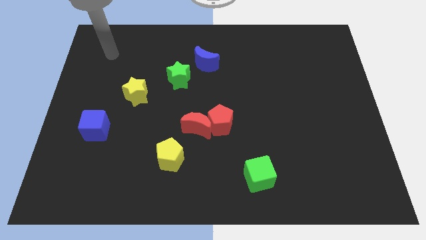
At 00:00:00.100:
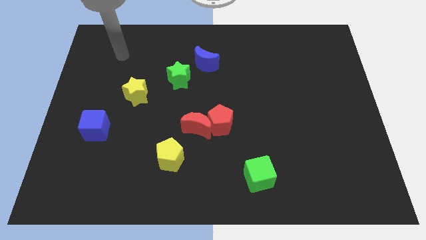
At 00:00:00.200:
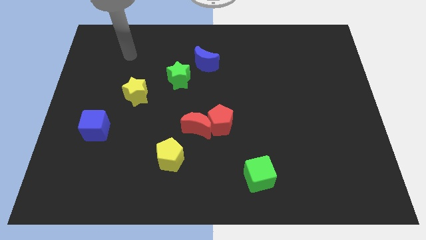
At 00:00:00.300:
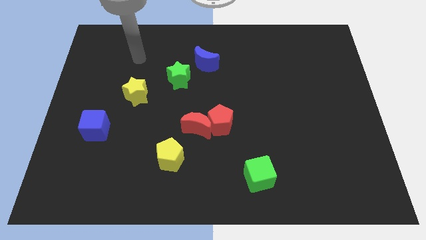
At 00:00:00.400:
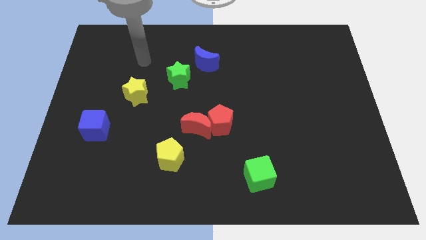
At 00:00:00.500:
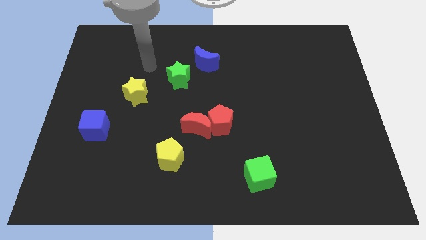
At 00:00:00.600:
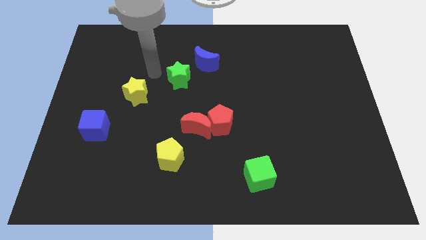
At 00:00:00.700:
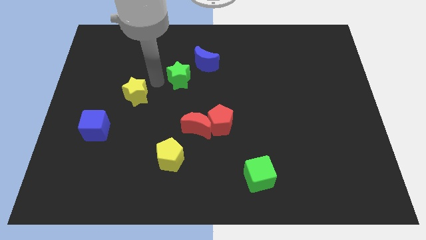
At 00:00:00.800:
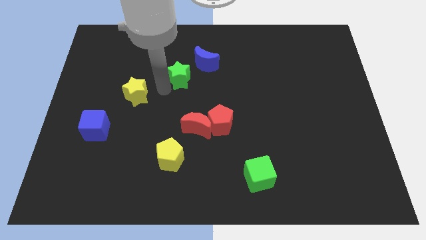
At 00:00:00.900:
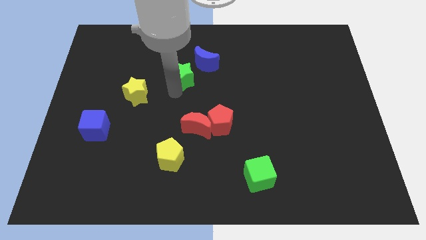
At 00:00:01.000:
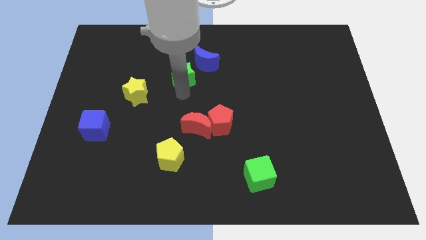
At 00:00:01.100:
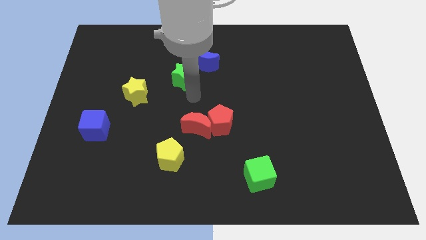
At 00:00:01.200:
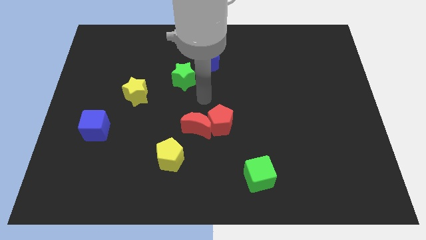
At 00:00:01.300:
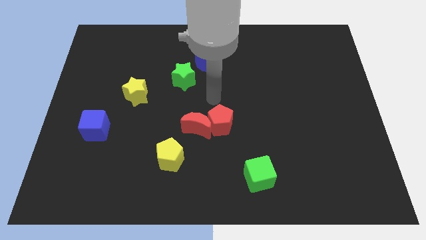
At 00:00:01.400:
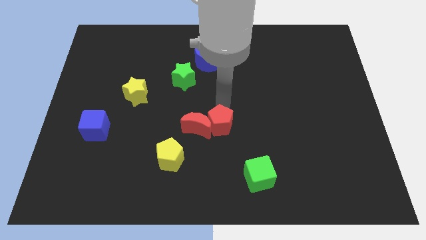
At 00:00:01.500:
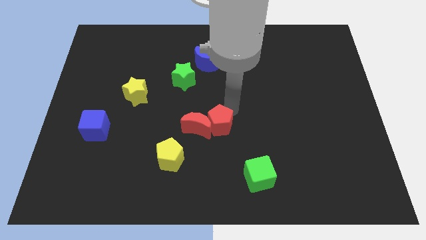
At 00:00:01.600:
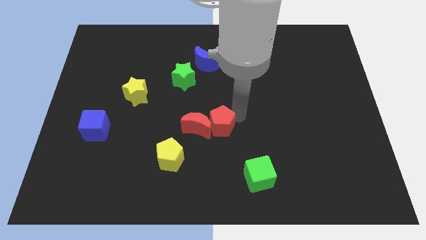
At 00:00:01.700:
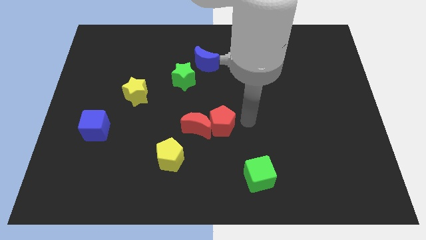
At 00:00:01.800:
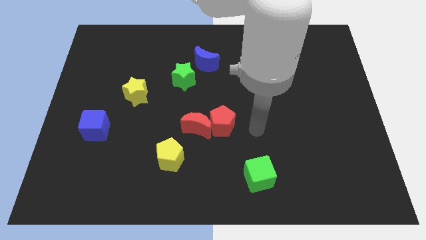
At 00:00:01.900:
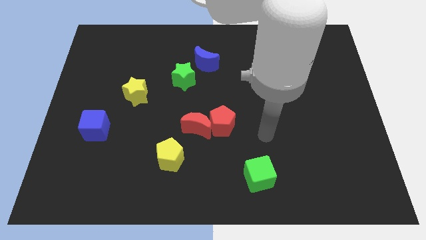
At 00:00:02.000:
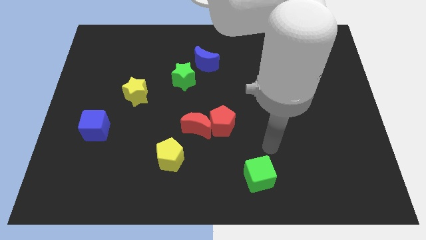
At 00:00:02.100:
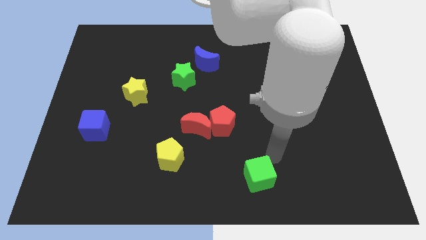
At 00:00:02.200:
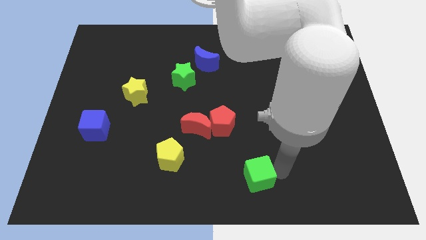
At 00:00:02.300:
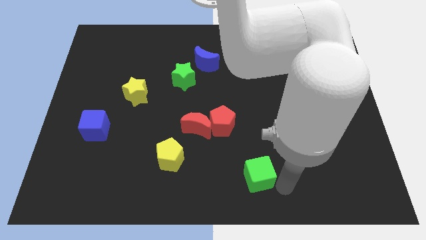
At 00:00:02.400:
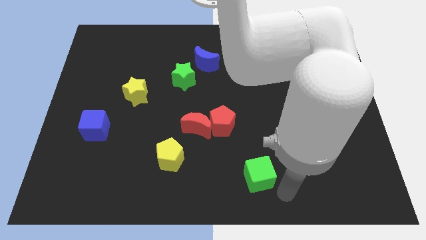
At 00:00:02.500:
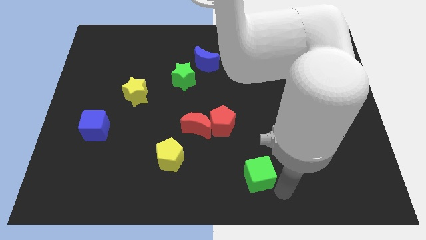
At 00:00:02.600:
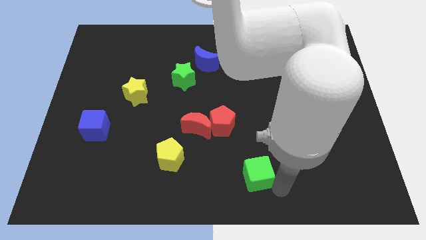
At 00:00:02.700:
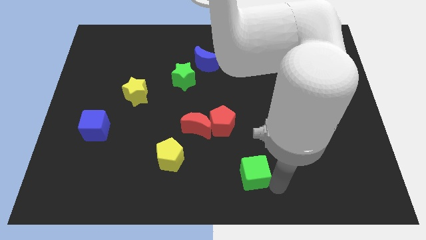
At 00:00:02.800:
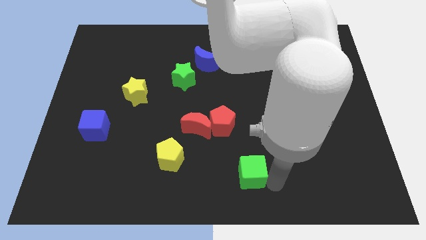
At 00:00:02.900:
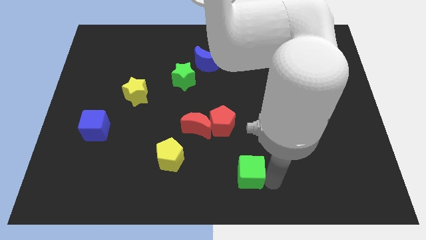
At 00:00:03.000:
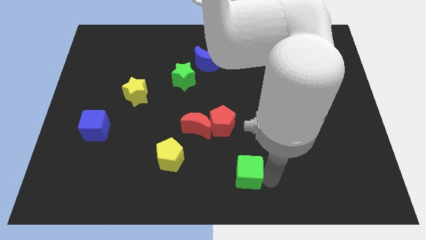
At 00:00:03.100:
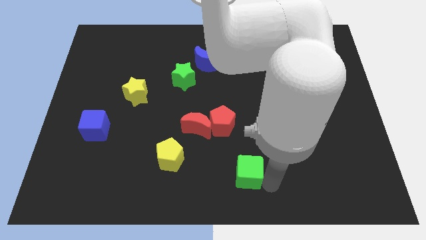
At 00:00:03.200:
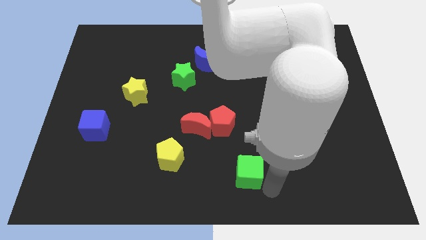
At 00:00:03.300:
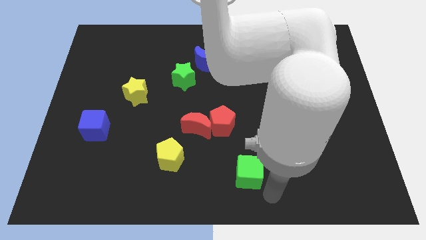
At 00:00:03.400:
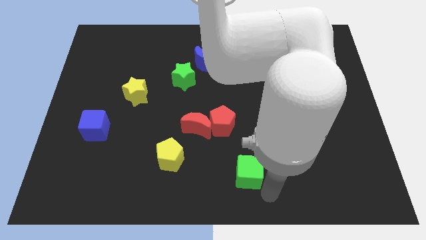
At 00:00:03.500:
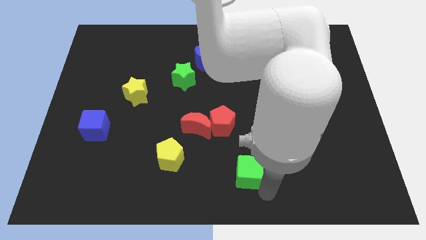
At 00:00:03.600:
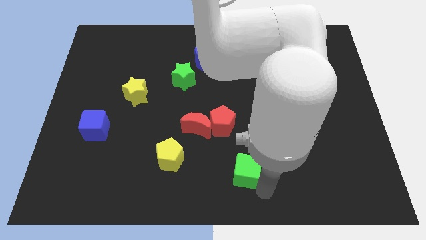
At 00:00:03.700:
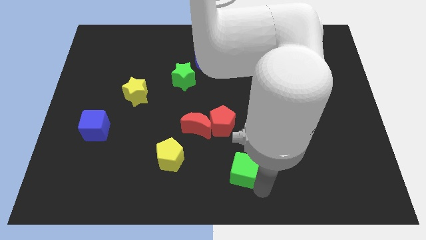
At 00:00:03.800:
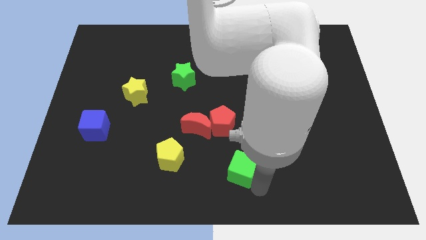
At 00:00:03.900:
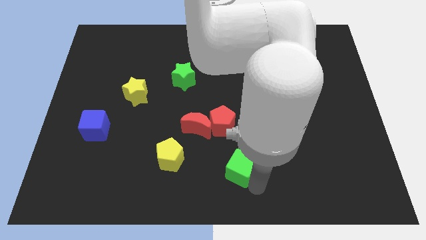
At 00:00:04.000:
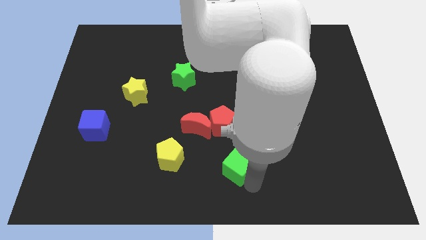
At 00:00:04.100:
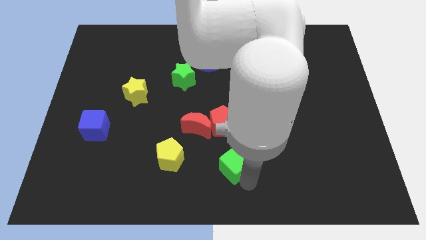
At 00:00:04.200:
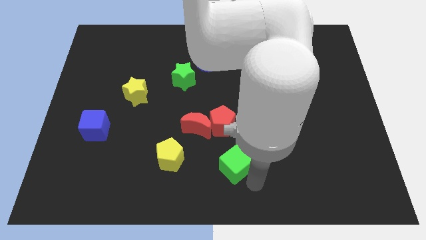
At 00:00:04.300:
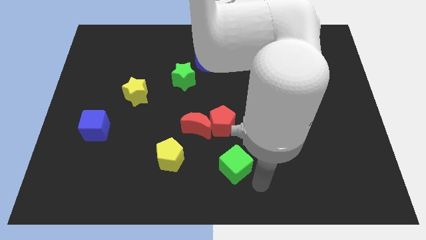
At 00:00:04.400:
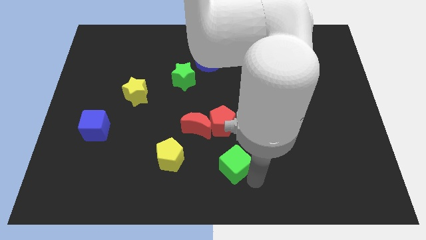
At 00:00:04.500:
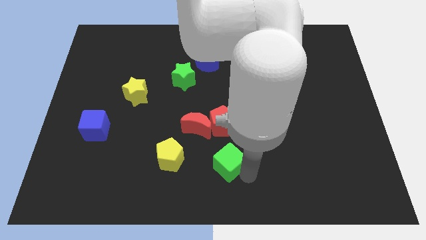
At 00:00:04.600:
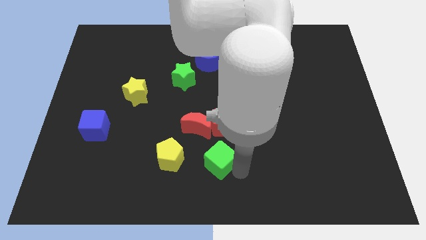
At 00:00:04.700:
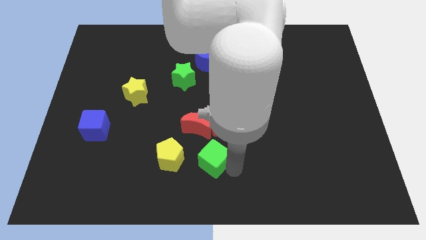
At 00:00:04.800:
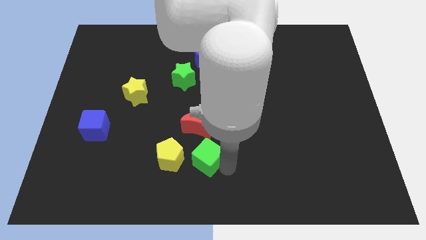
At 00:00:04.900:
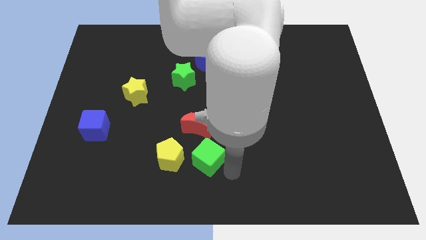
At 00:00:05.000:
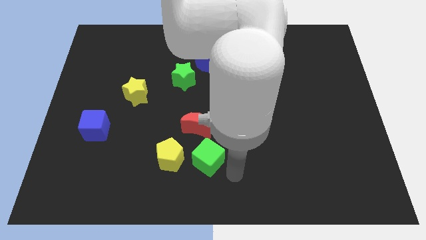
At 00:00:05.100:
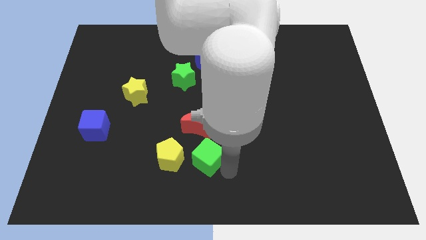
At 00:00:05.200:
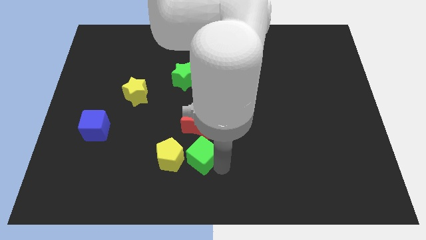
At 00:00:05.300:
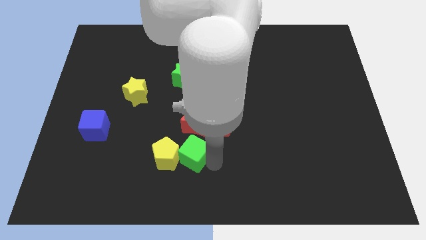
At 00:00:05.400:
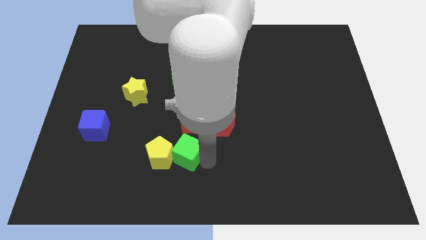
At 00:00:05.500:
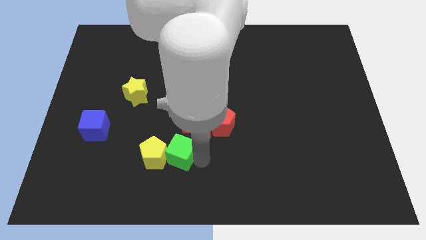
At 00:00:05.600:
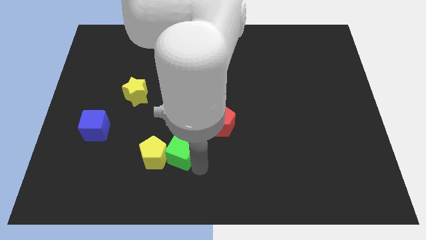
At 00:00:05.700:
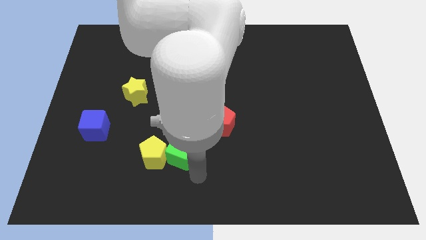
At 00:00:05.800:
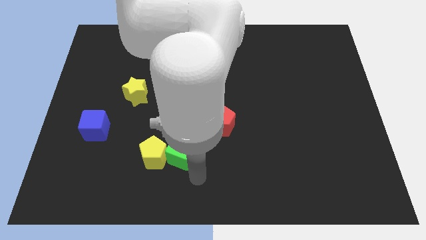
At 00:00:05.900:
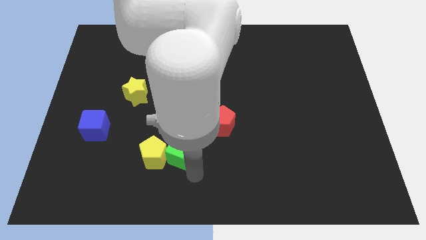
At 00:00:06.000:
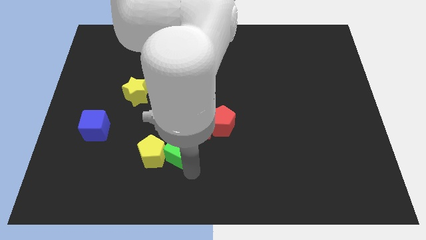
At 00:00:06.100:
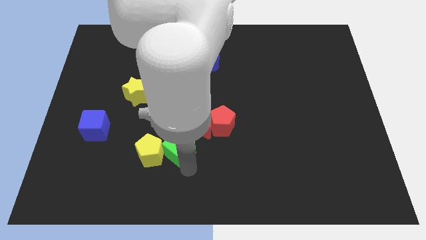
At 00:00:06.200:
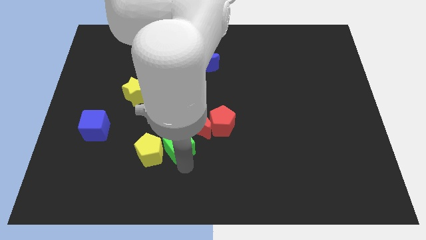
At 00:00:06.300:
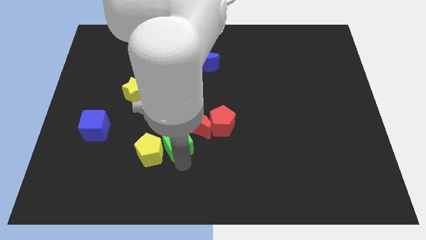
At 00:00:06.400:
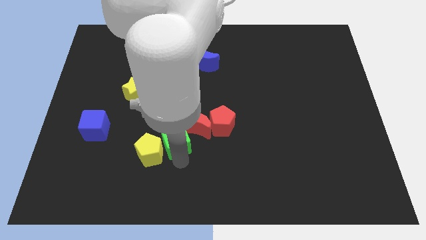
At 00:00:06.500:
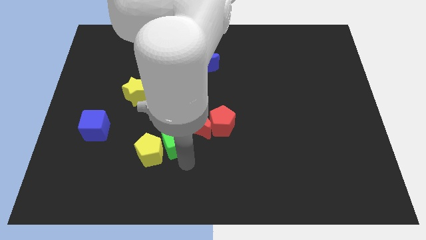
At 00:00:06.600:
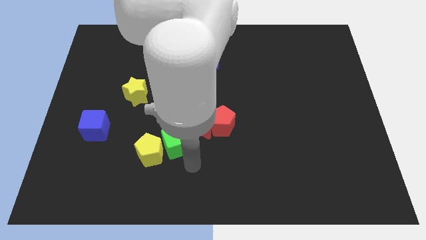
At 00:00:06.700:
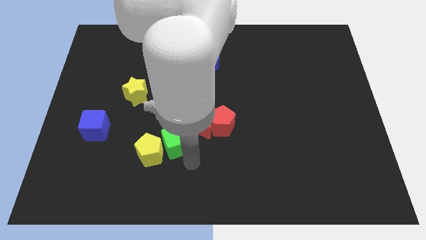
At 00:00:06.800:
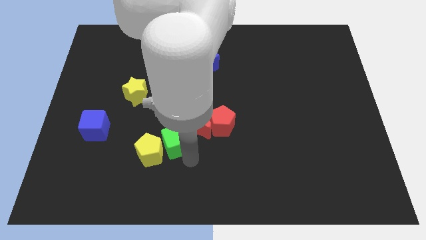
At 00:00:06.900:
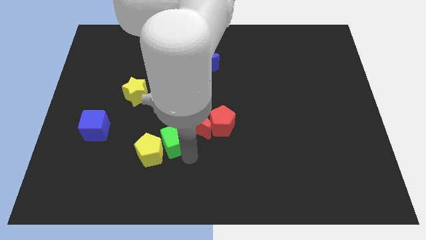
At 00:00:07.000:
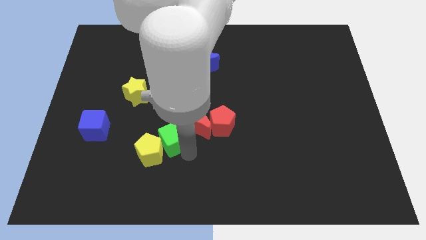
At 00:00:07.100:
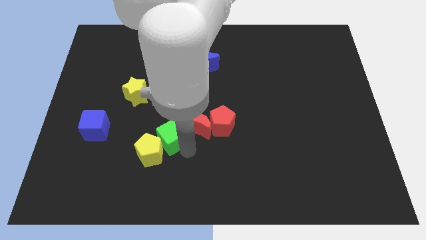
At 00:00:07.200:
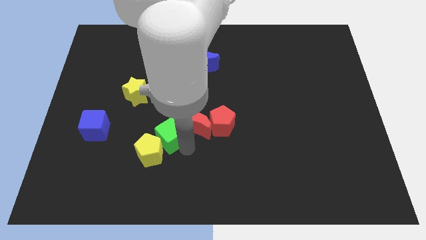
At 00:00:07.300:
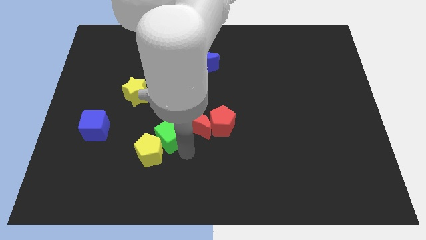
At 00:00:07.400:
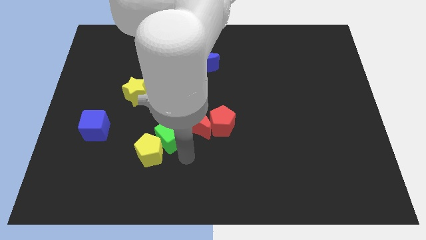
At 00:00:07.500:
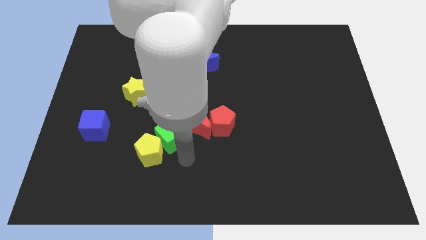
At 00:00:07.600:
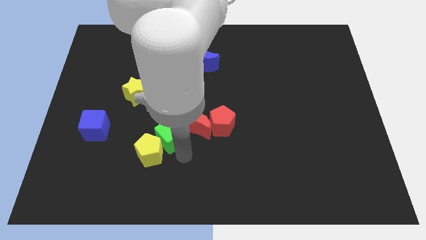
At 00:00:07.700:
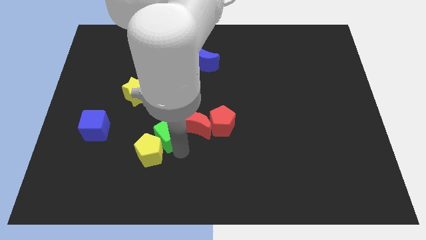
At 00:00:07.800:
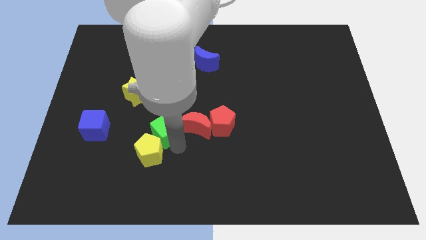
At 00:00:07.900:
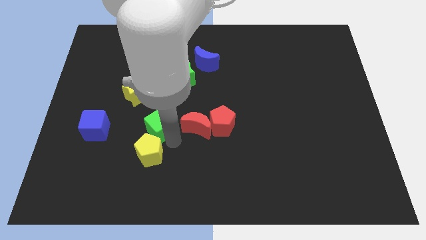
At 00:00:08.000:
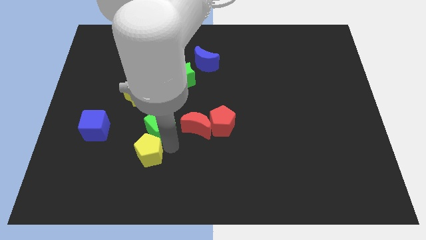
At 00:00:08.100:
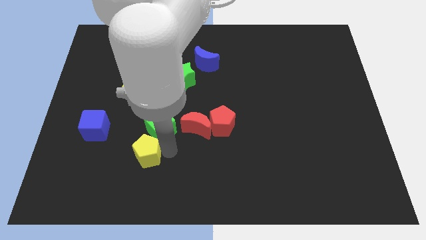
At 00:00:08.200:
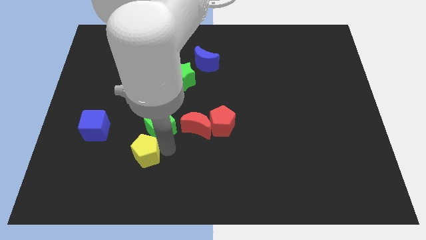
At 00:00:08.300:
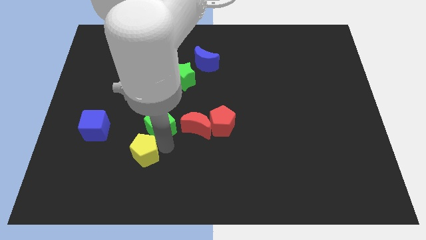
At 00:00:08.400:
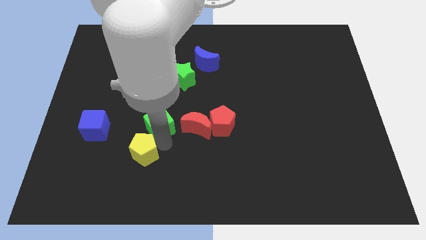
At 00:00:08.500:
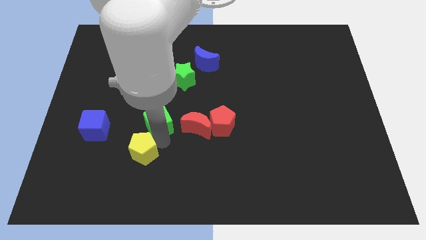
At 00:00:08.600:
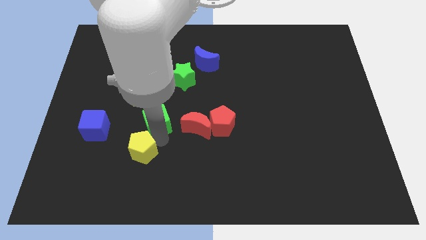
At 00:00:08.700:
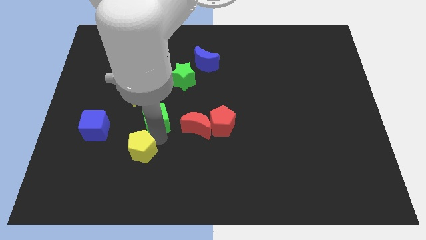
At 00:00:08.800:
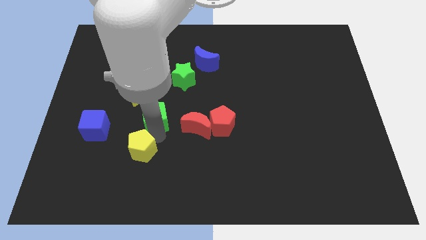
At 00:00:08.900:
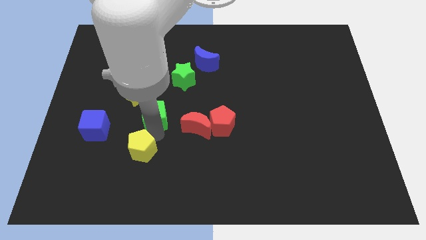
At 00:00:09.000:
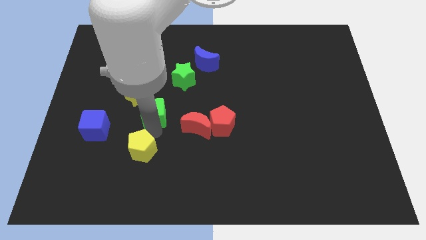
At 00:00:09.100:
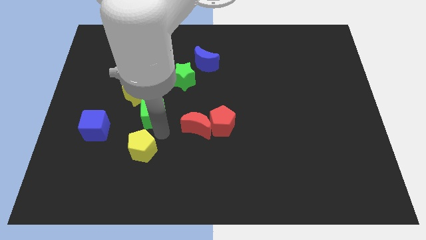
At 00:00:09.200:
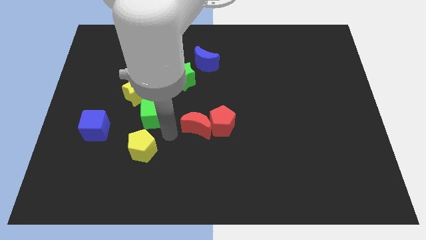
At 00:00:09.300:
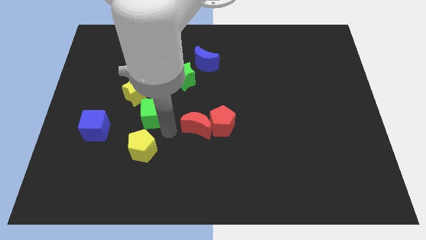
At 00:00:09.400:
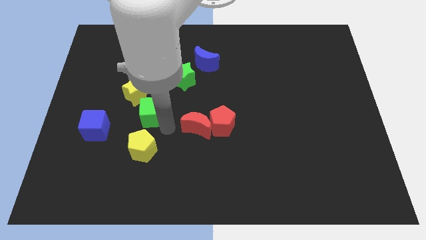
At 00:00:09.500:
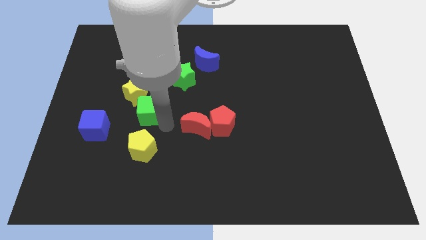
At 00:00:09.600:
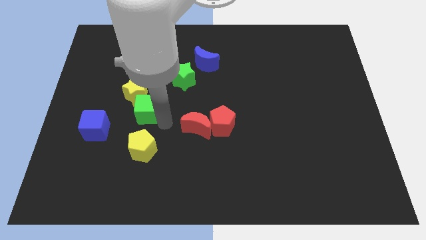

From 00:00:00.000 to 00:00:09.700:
put the green cube to the yellow star
